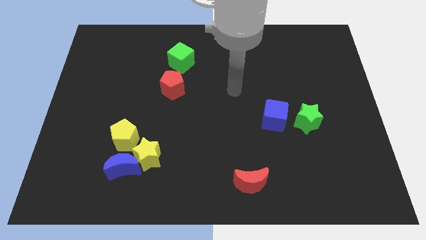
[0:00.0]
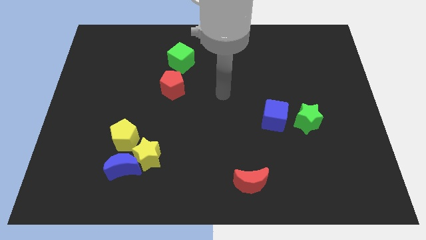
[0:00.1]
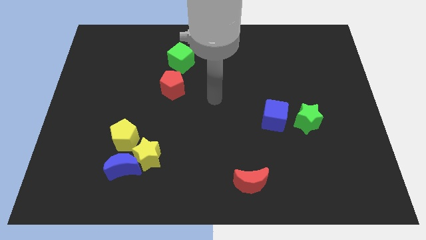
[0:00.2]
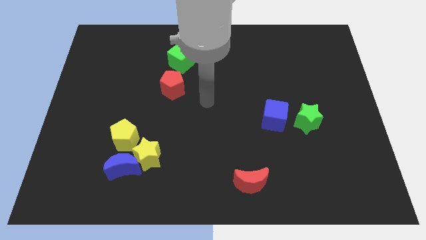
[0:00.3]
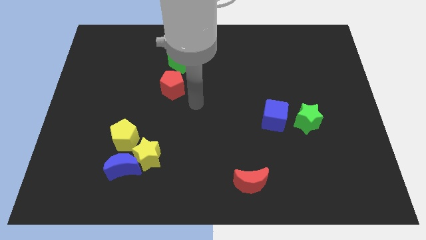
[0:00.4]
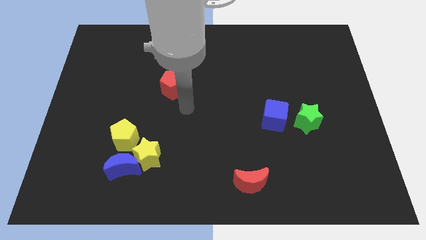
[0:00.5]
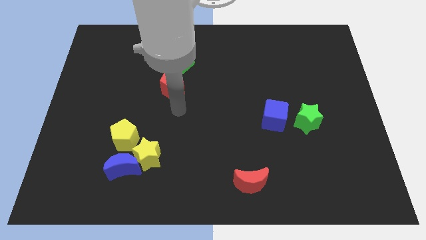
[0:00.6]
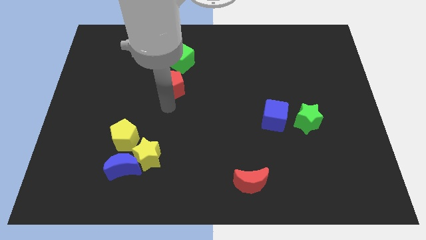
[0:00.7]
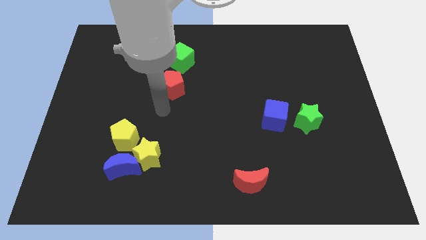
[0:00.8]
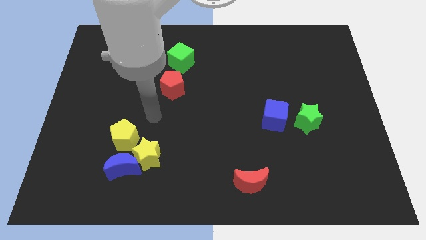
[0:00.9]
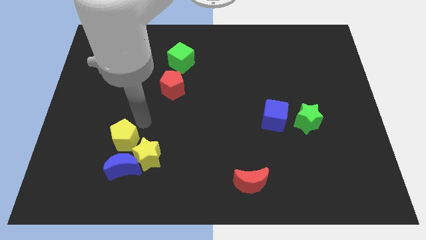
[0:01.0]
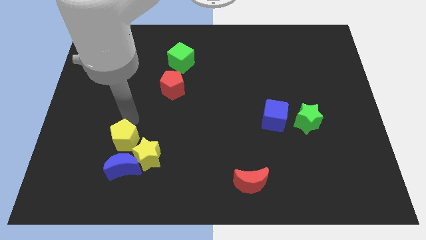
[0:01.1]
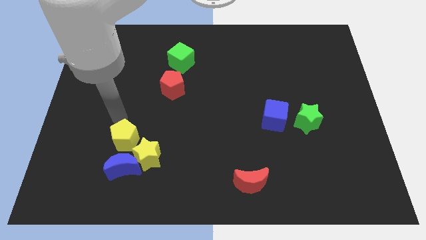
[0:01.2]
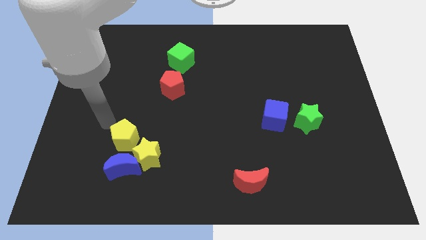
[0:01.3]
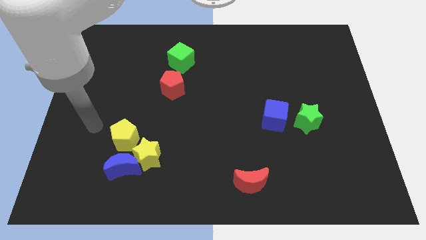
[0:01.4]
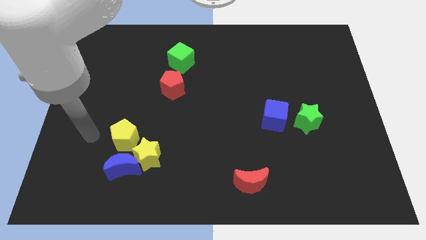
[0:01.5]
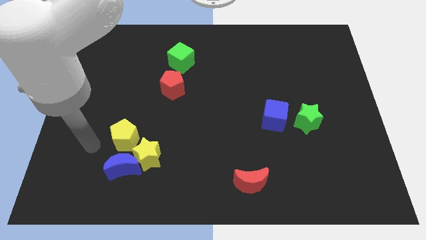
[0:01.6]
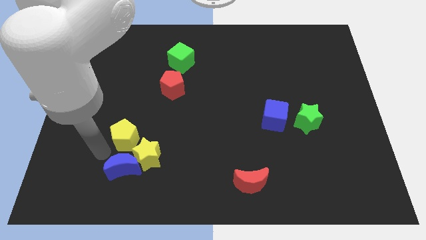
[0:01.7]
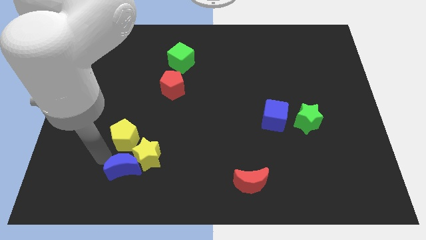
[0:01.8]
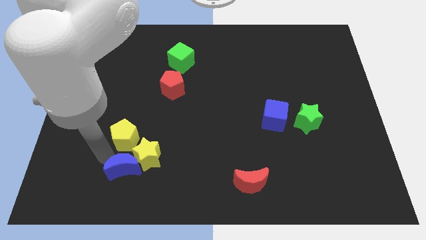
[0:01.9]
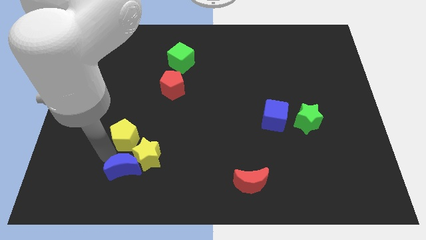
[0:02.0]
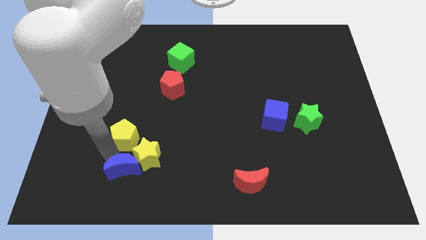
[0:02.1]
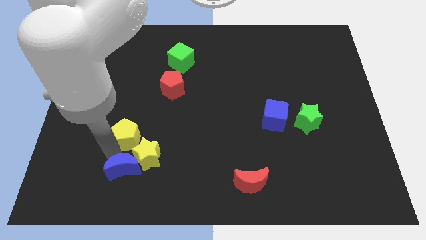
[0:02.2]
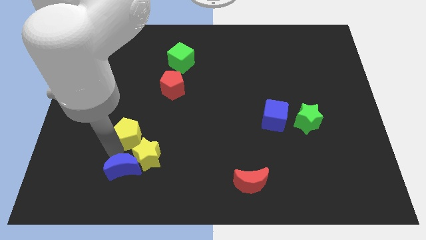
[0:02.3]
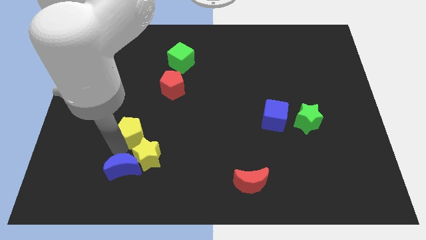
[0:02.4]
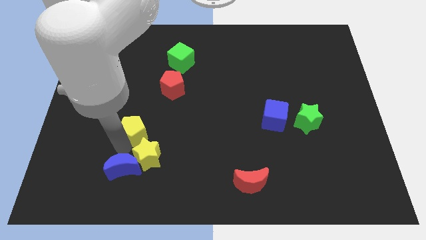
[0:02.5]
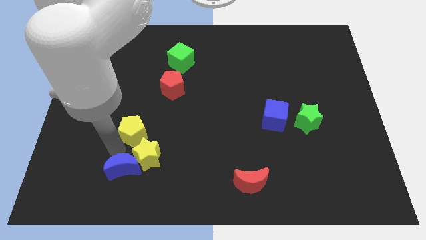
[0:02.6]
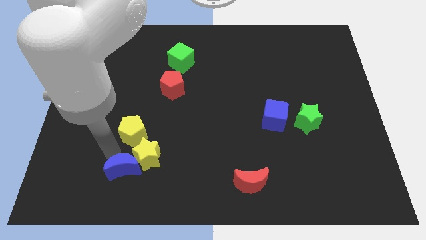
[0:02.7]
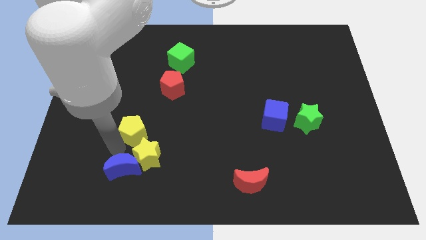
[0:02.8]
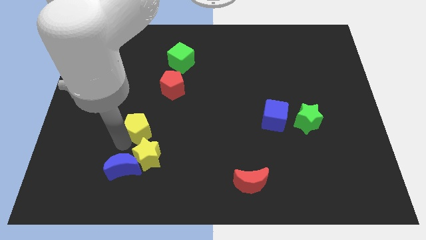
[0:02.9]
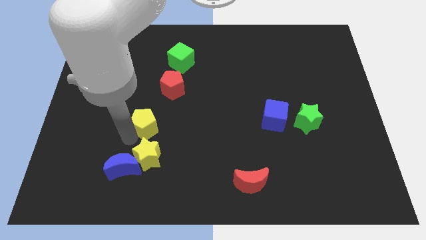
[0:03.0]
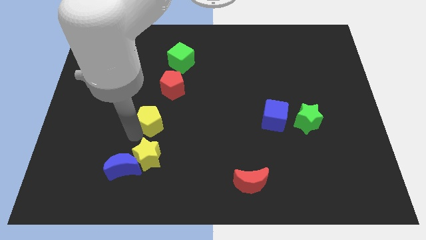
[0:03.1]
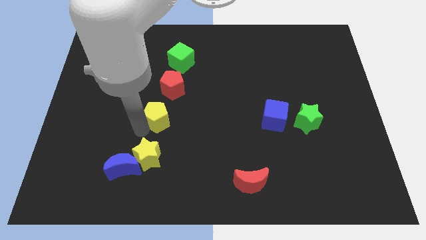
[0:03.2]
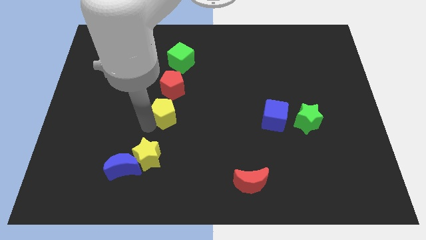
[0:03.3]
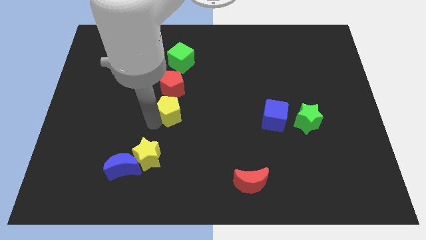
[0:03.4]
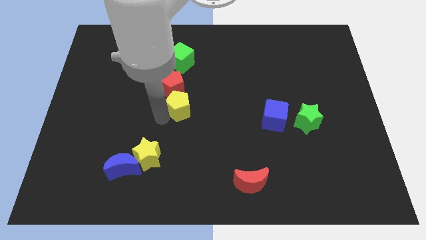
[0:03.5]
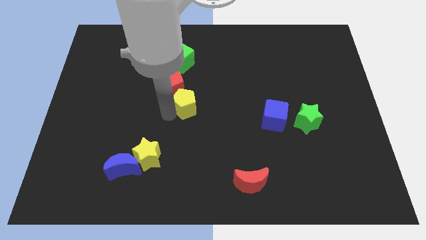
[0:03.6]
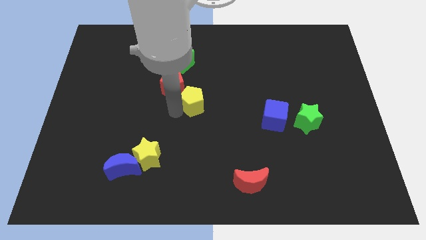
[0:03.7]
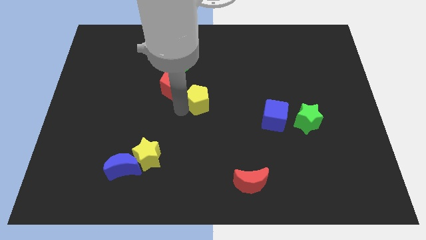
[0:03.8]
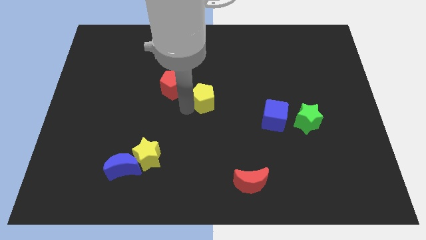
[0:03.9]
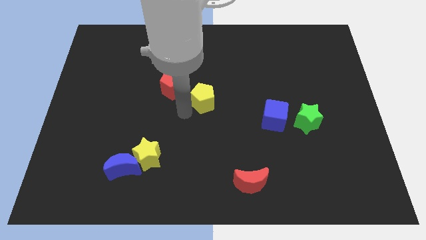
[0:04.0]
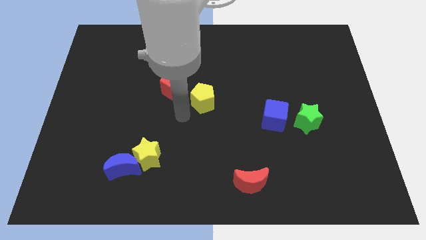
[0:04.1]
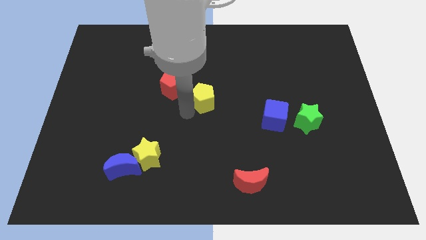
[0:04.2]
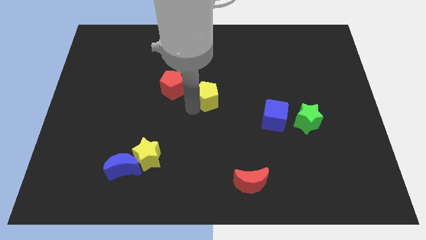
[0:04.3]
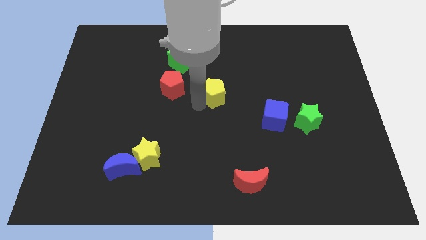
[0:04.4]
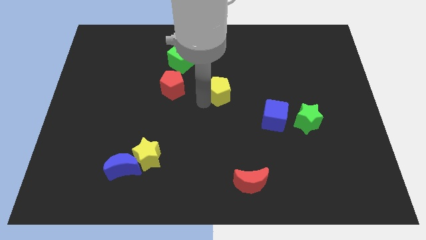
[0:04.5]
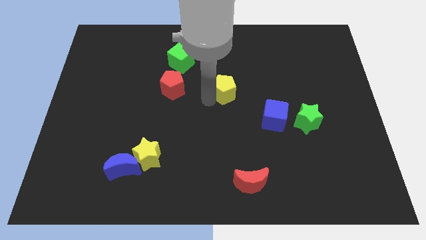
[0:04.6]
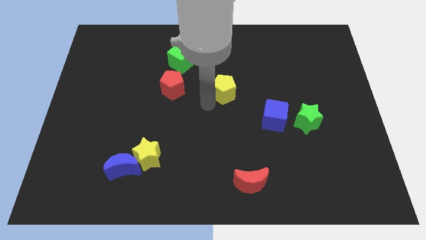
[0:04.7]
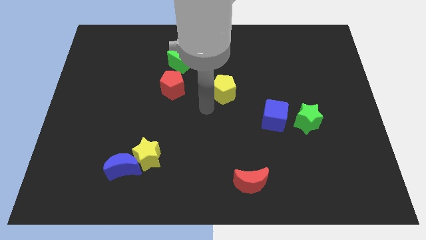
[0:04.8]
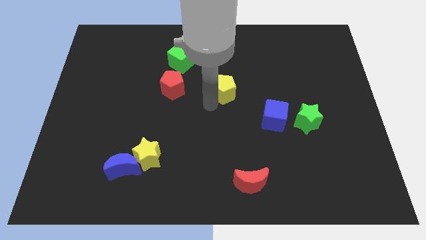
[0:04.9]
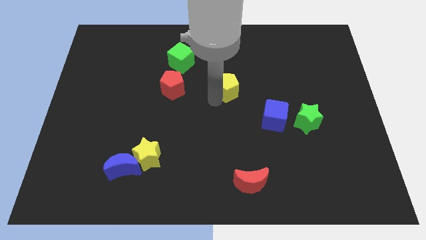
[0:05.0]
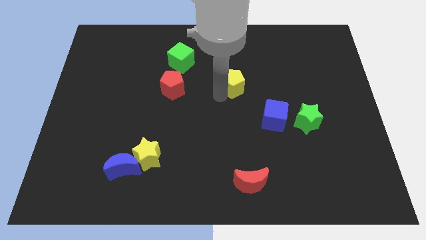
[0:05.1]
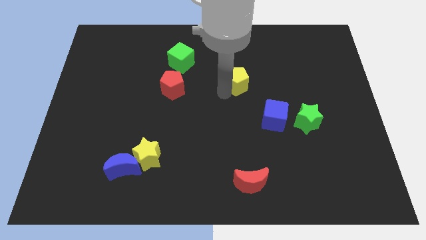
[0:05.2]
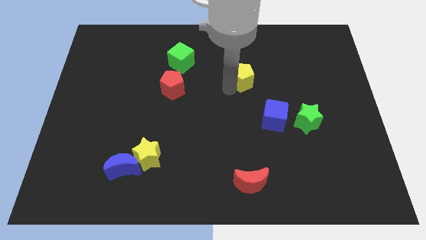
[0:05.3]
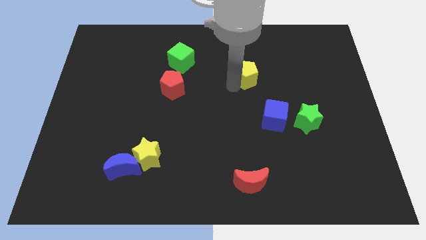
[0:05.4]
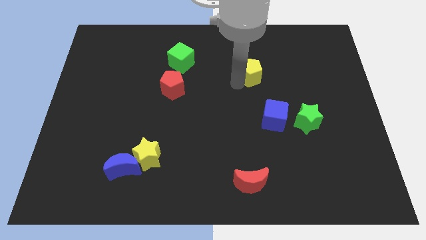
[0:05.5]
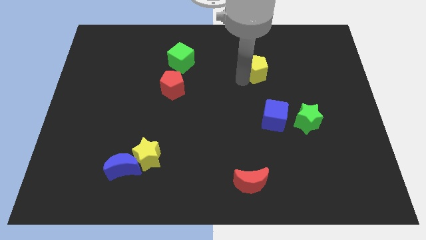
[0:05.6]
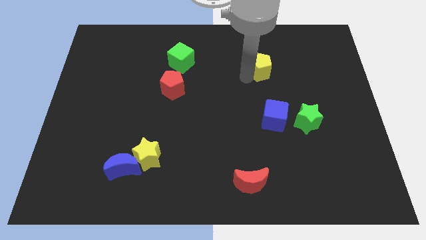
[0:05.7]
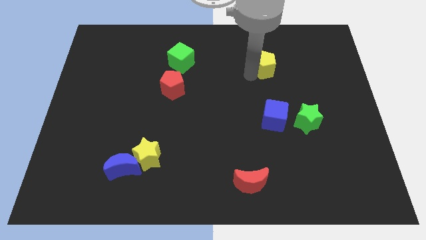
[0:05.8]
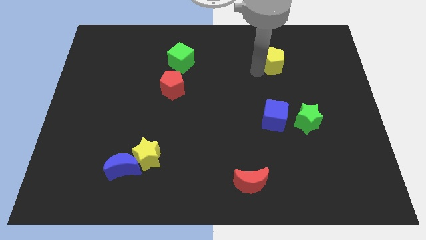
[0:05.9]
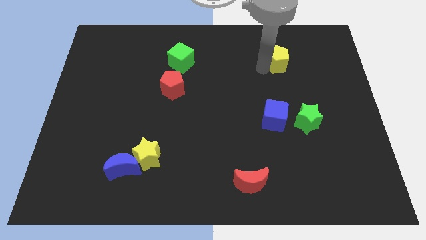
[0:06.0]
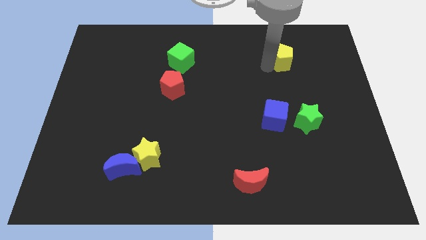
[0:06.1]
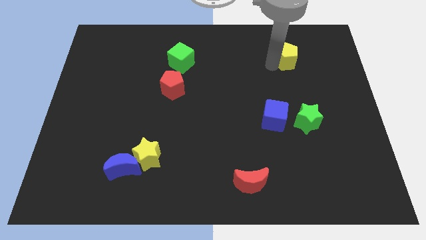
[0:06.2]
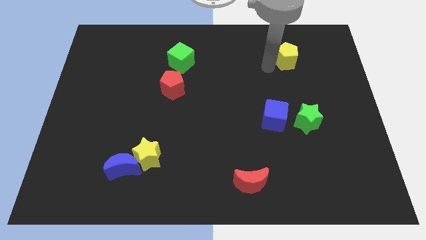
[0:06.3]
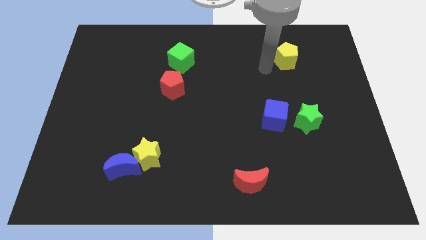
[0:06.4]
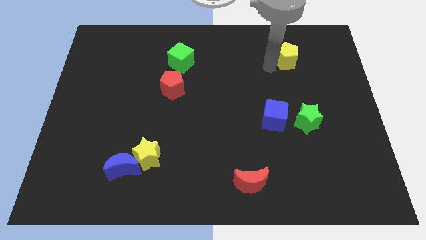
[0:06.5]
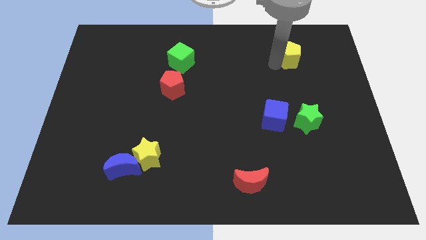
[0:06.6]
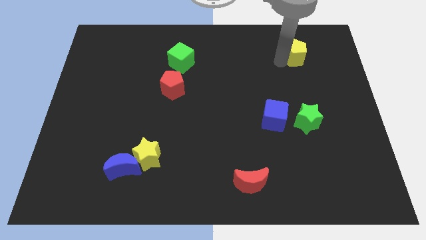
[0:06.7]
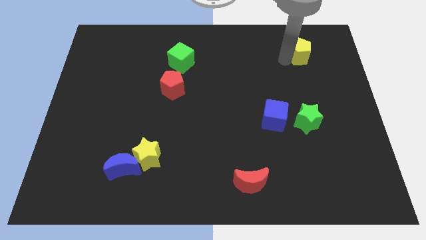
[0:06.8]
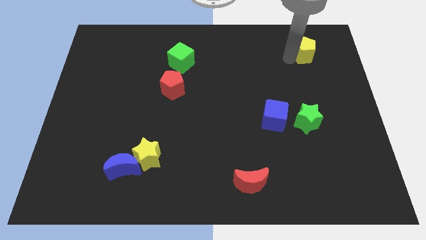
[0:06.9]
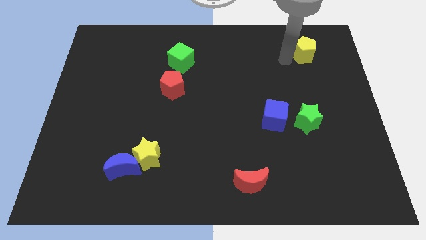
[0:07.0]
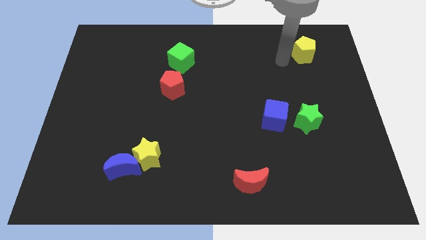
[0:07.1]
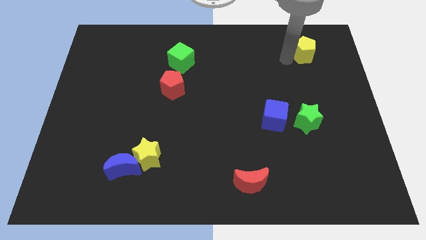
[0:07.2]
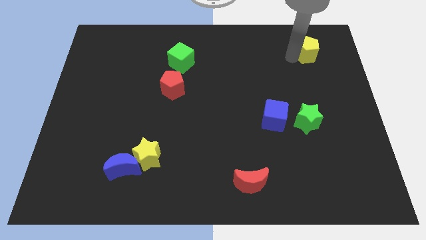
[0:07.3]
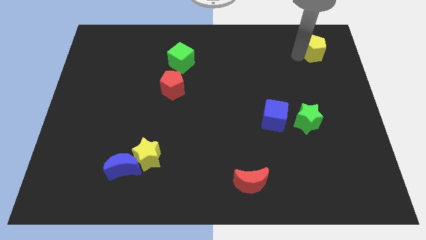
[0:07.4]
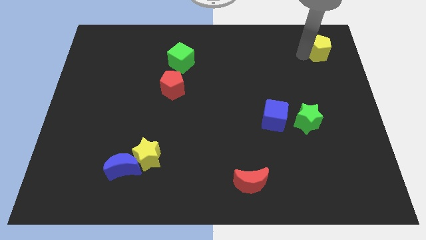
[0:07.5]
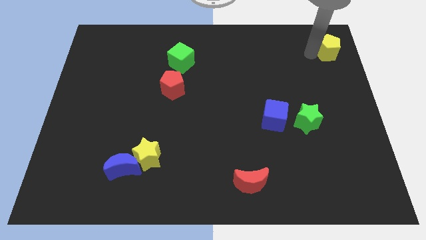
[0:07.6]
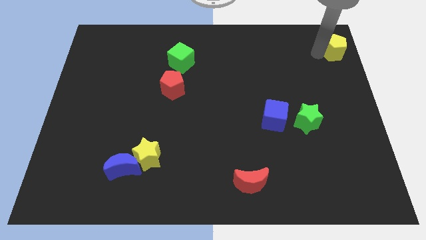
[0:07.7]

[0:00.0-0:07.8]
move the yellow pentagon to the top right

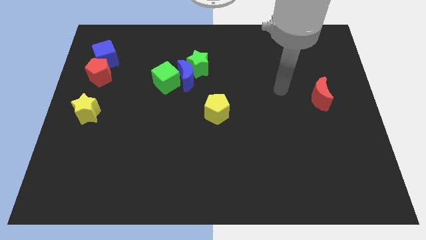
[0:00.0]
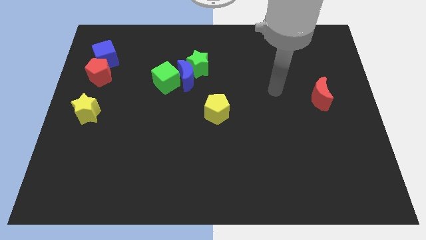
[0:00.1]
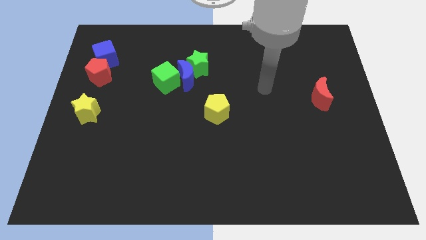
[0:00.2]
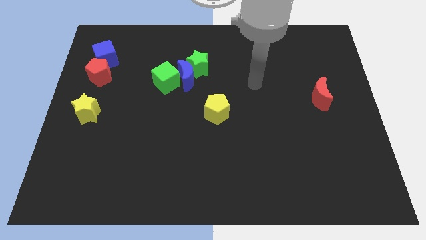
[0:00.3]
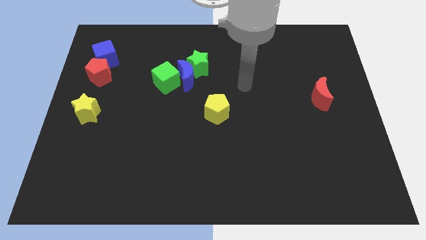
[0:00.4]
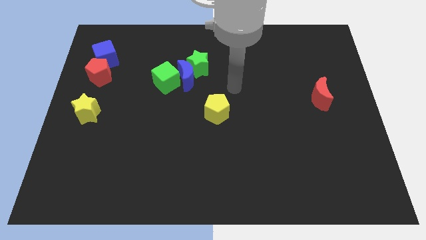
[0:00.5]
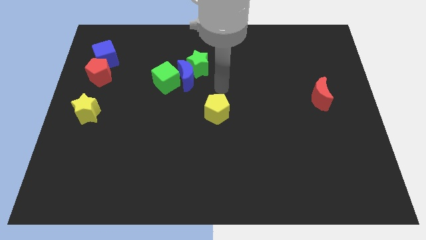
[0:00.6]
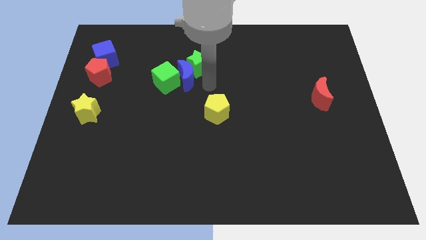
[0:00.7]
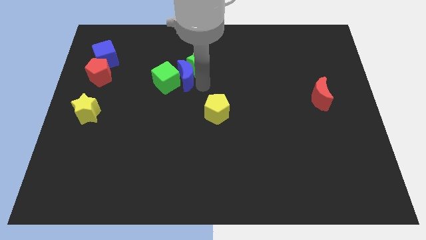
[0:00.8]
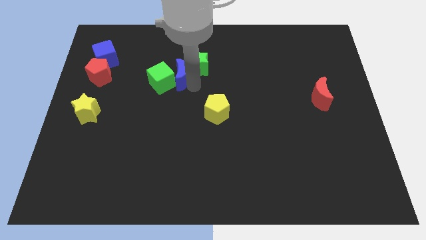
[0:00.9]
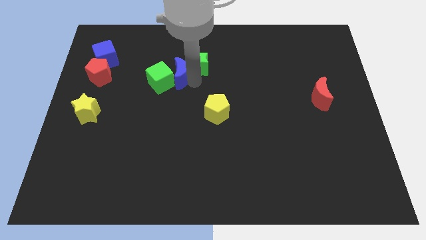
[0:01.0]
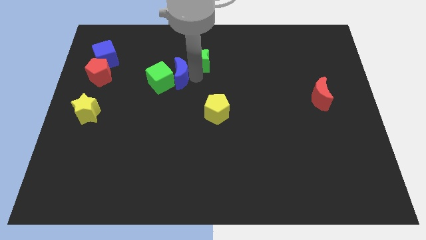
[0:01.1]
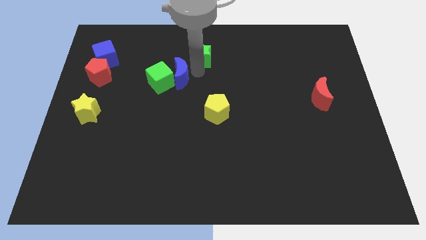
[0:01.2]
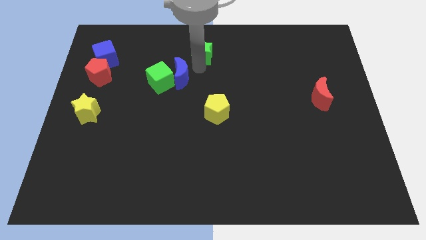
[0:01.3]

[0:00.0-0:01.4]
put the green star to the top side
